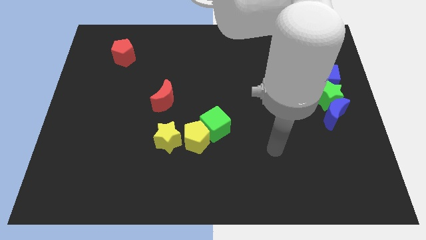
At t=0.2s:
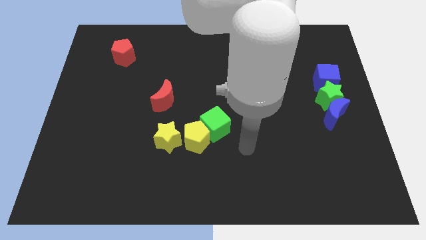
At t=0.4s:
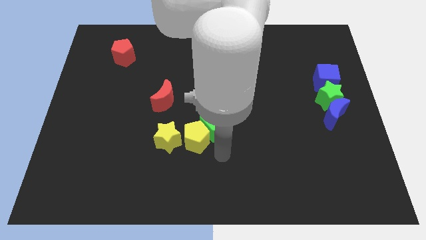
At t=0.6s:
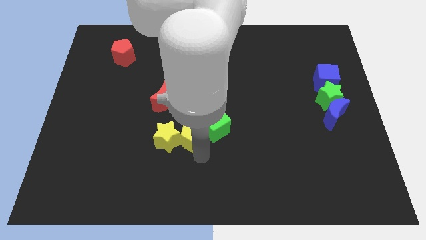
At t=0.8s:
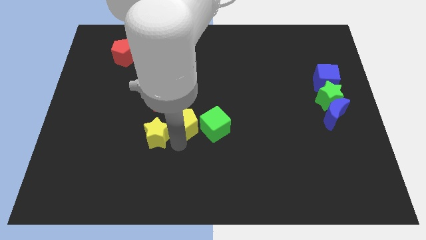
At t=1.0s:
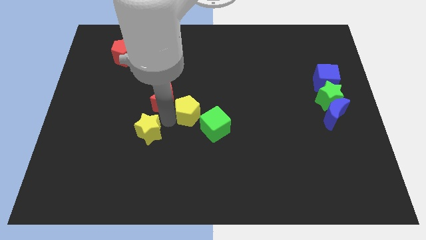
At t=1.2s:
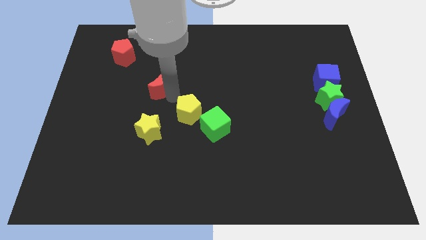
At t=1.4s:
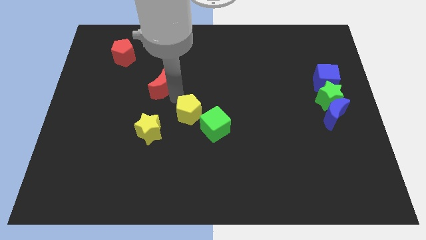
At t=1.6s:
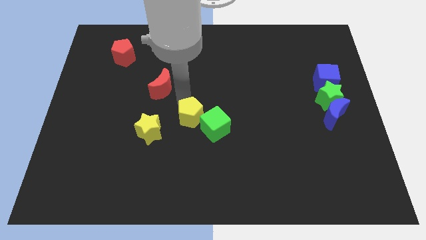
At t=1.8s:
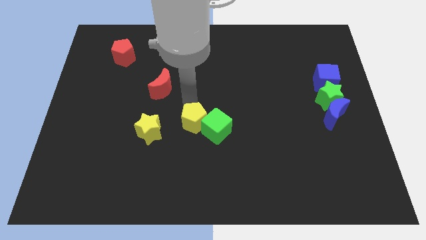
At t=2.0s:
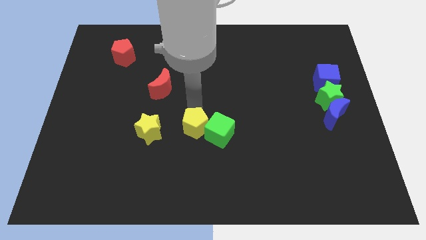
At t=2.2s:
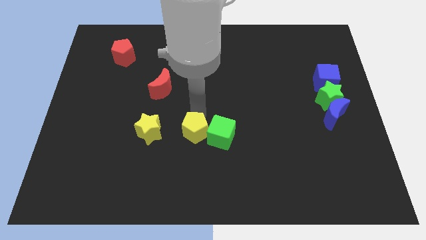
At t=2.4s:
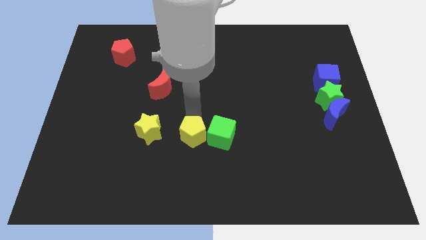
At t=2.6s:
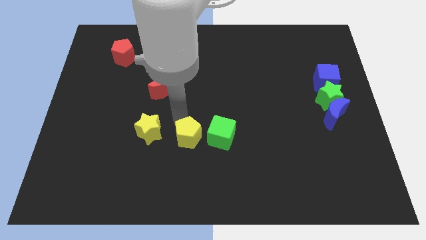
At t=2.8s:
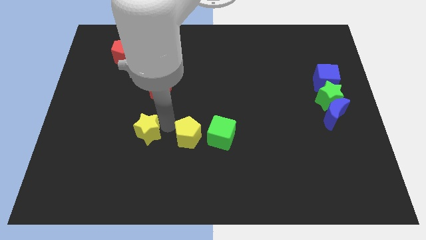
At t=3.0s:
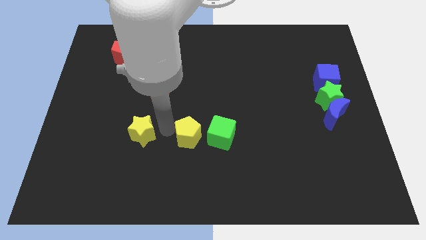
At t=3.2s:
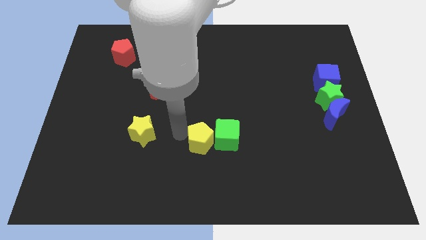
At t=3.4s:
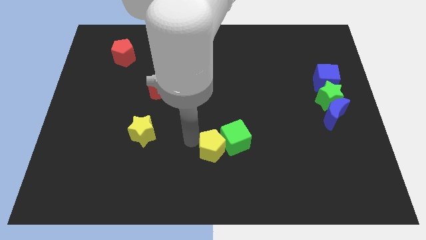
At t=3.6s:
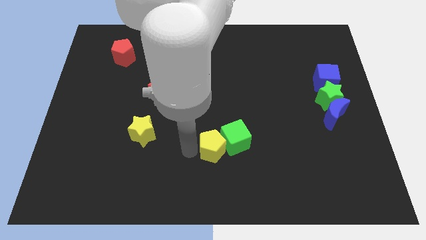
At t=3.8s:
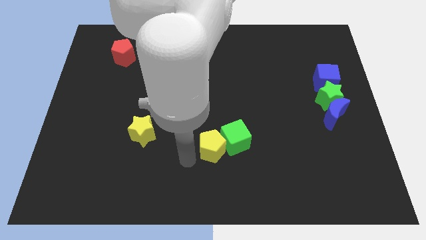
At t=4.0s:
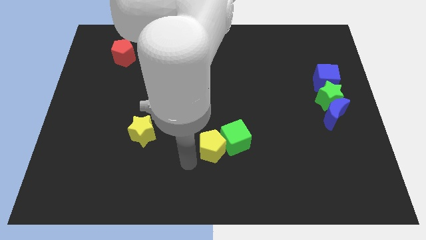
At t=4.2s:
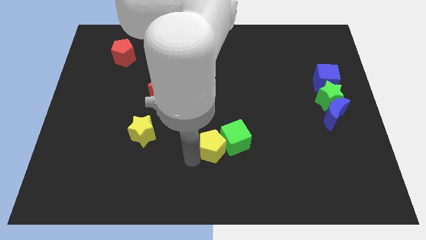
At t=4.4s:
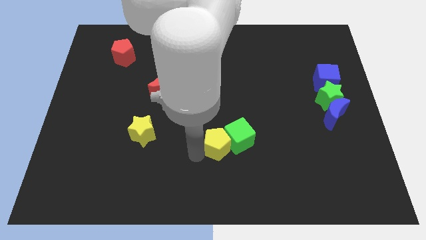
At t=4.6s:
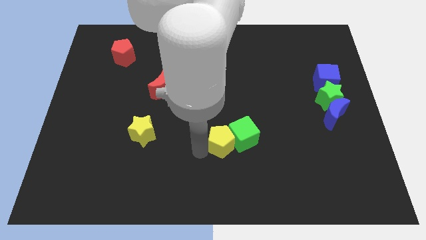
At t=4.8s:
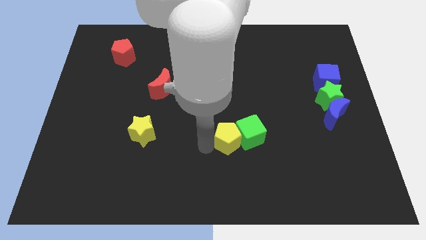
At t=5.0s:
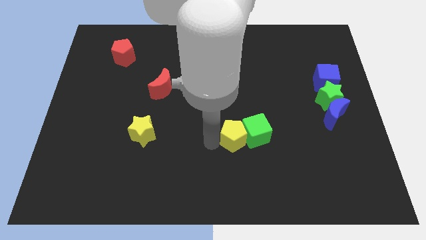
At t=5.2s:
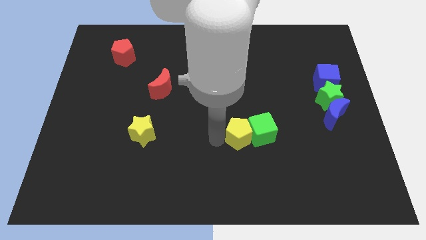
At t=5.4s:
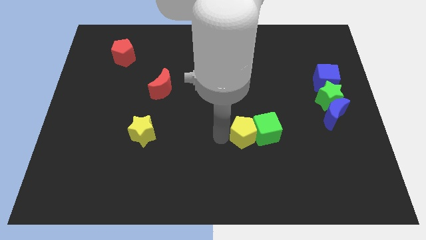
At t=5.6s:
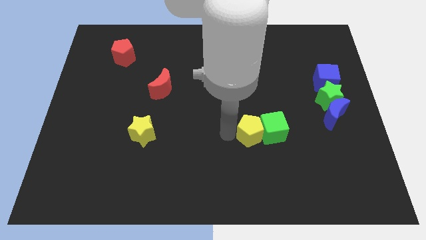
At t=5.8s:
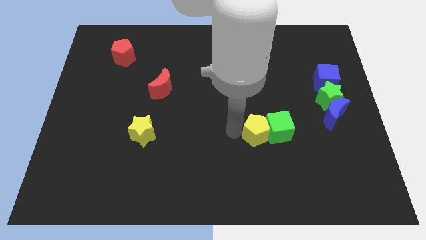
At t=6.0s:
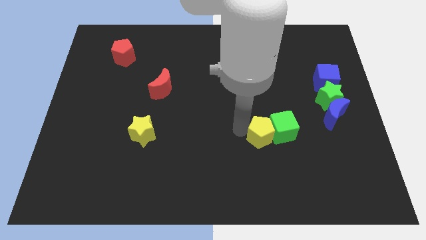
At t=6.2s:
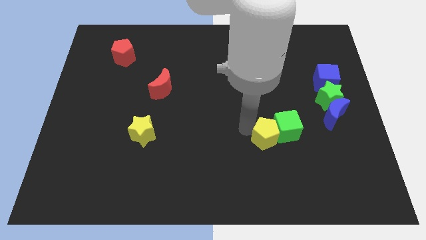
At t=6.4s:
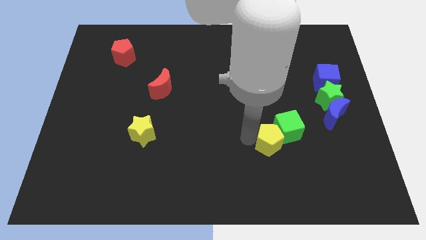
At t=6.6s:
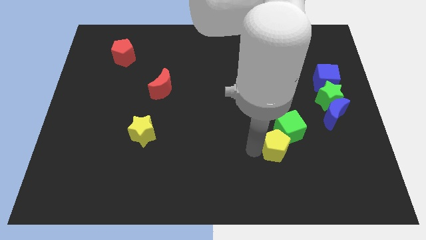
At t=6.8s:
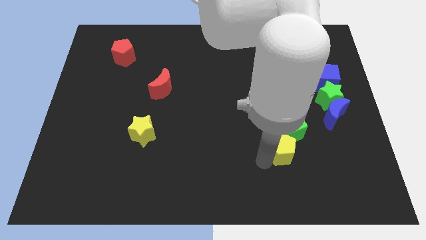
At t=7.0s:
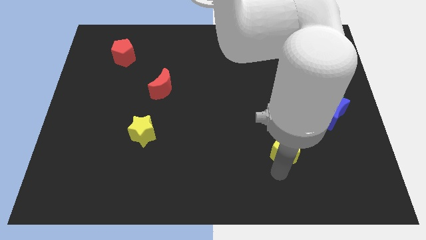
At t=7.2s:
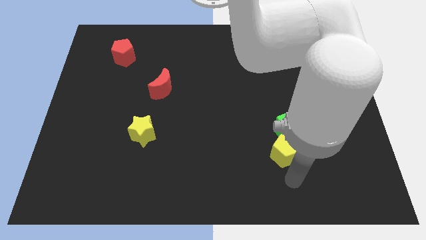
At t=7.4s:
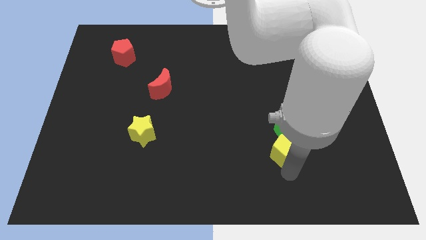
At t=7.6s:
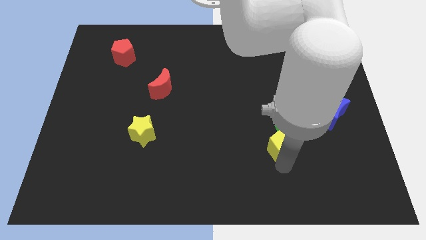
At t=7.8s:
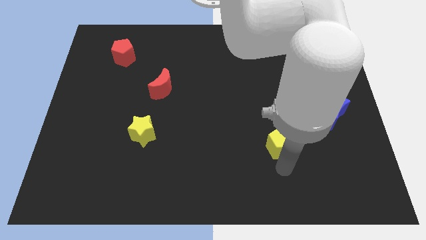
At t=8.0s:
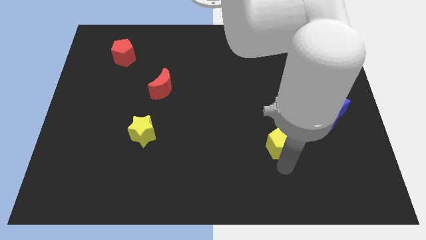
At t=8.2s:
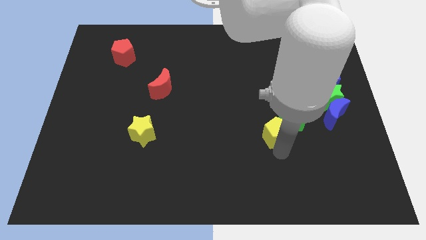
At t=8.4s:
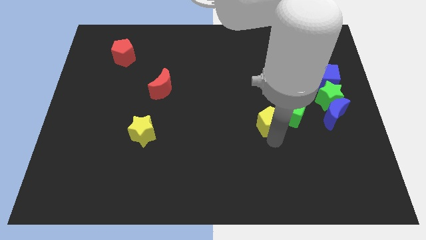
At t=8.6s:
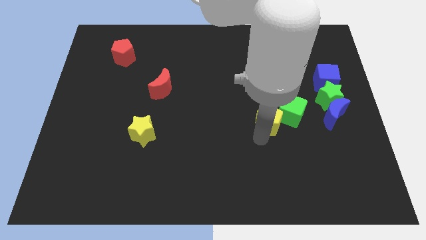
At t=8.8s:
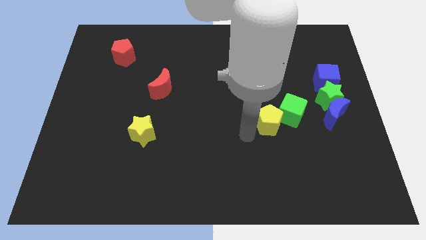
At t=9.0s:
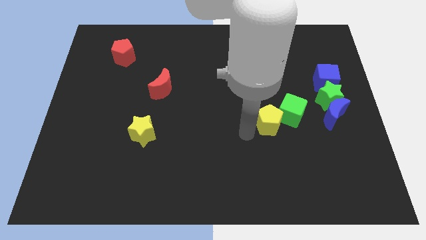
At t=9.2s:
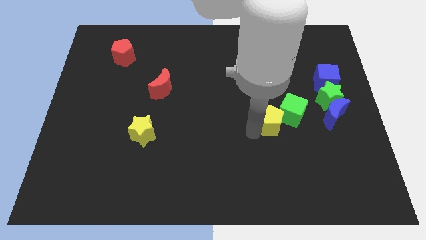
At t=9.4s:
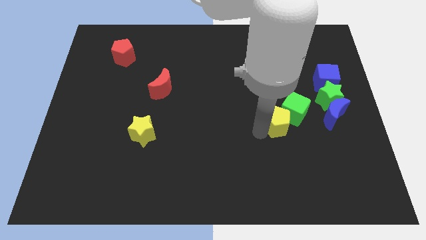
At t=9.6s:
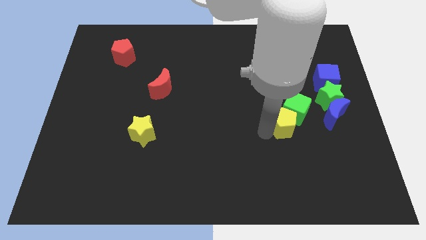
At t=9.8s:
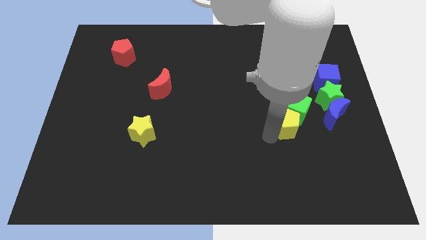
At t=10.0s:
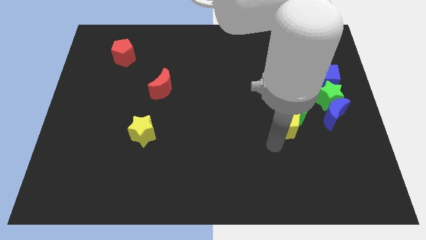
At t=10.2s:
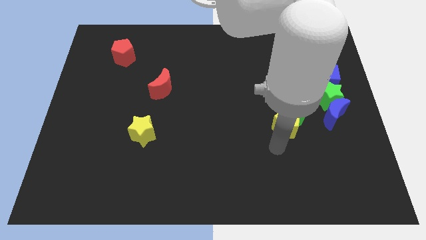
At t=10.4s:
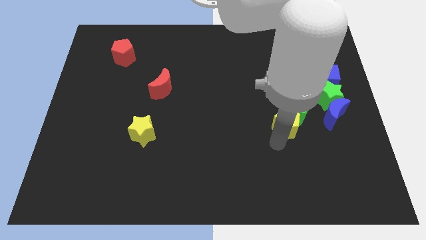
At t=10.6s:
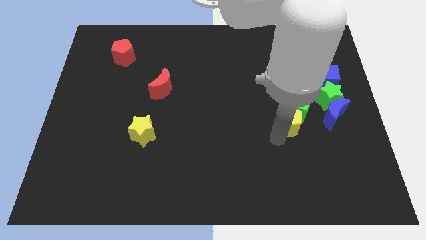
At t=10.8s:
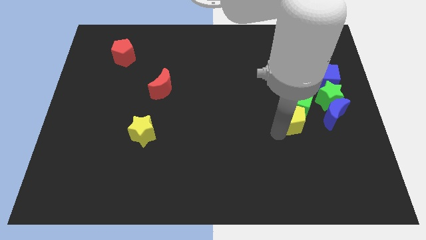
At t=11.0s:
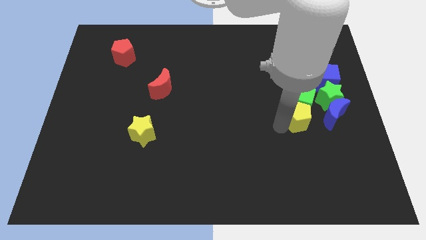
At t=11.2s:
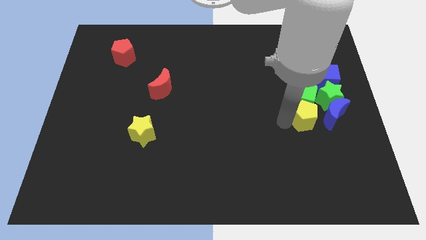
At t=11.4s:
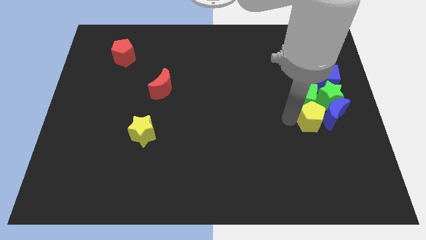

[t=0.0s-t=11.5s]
put the yellow pentagon to the top left of the blue moon

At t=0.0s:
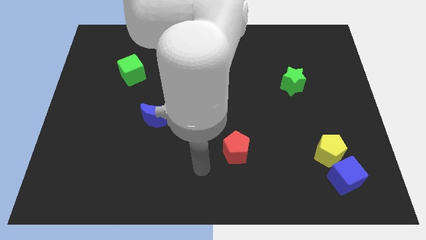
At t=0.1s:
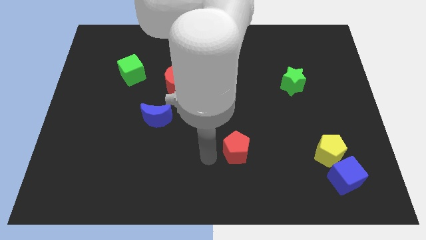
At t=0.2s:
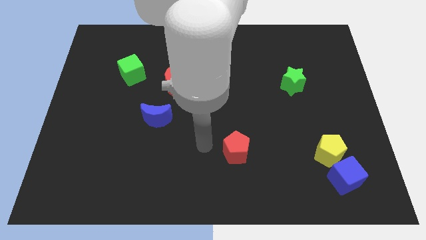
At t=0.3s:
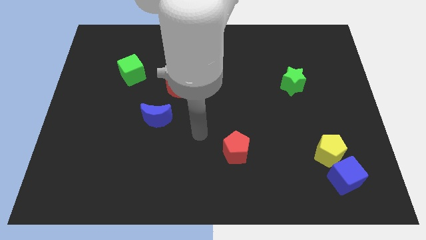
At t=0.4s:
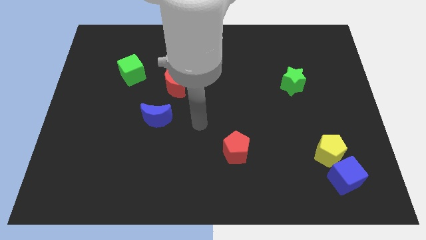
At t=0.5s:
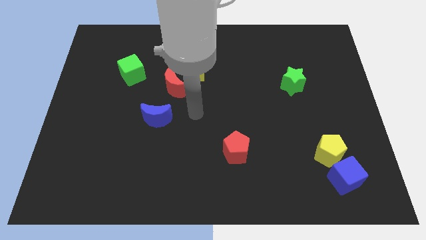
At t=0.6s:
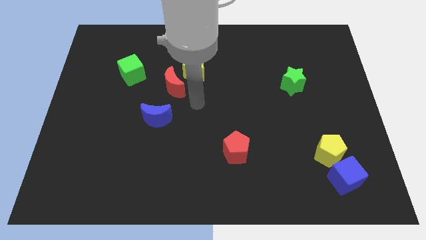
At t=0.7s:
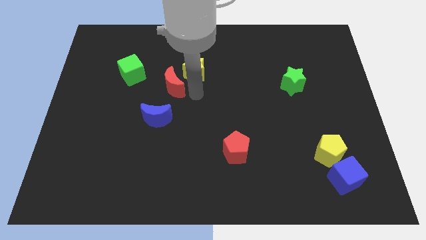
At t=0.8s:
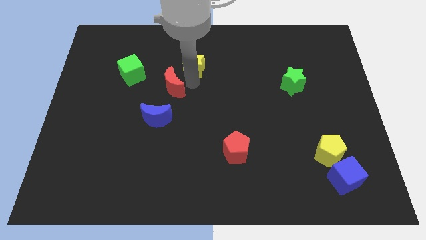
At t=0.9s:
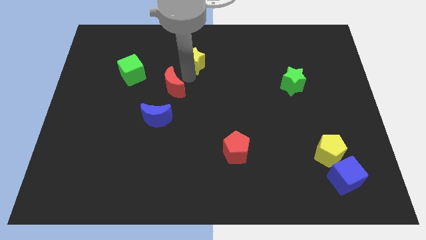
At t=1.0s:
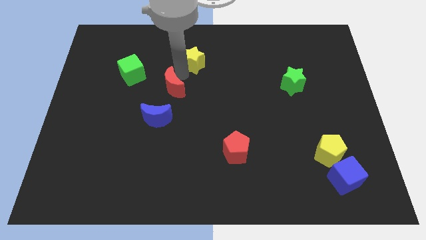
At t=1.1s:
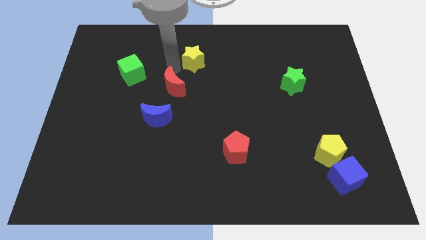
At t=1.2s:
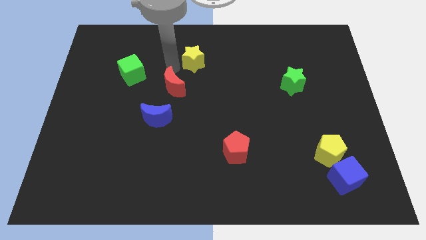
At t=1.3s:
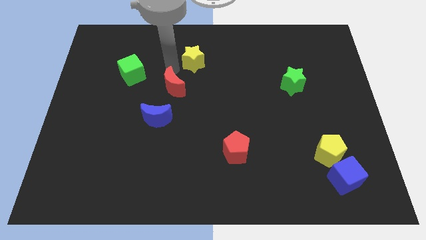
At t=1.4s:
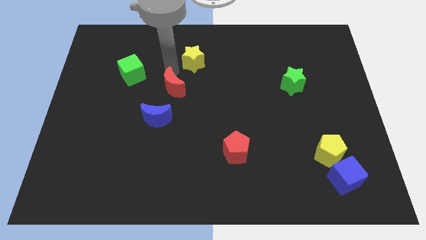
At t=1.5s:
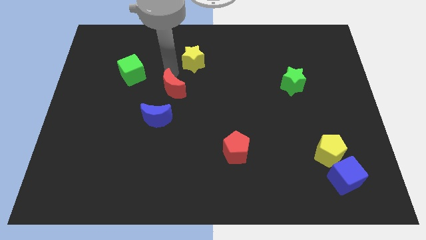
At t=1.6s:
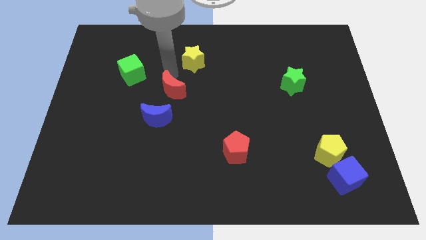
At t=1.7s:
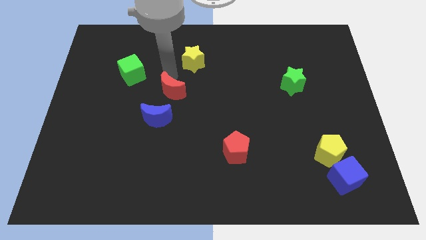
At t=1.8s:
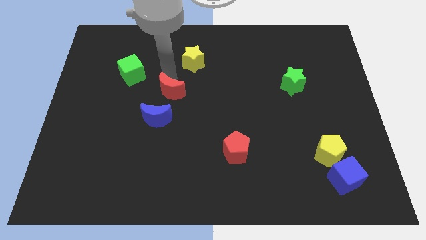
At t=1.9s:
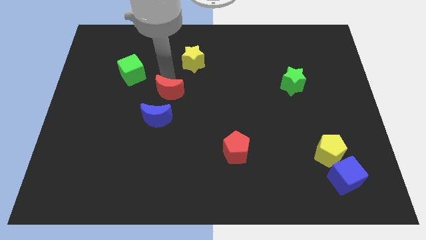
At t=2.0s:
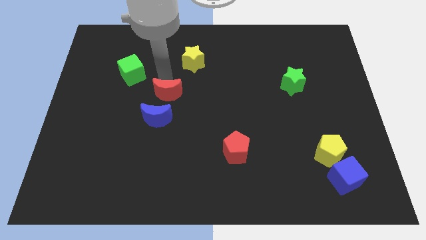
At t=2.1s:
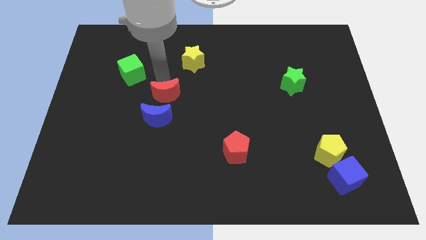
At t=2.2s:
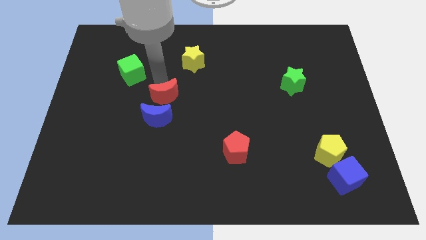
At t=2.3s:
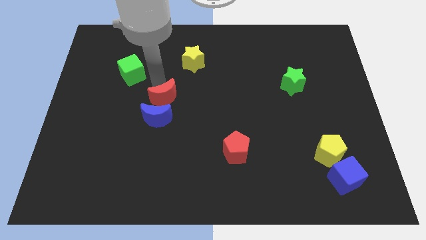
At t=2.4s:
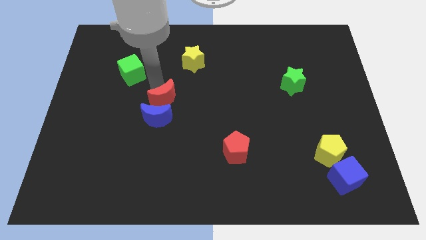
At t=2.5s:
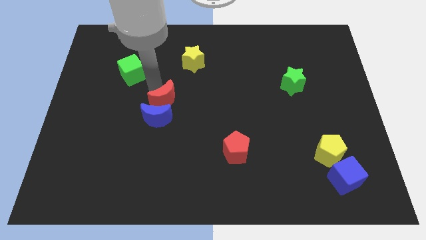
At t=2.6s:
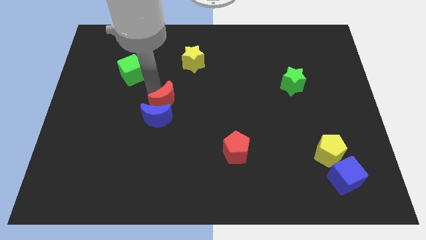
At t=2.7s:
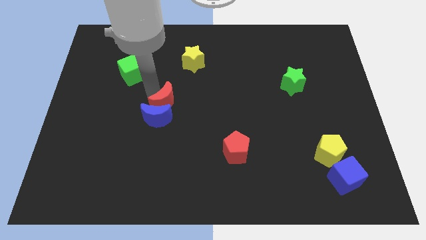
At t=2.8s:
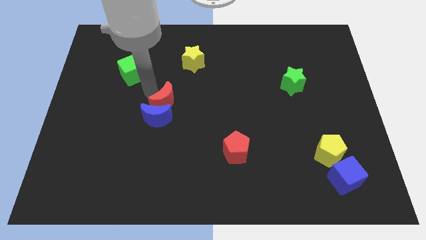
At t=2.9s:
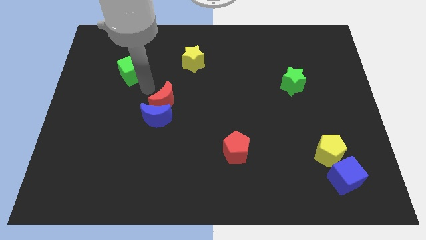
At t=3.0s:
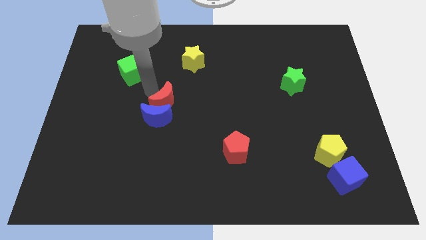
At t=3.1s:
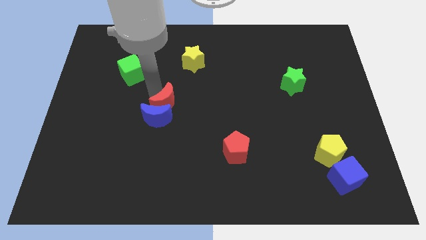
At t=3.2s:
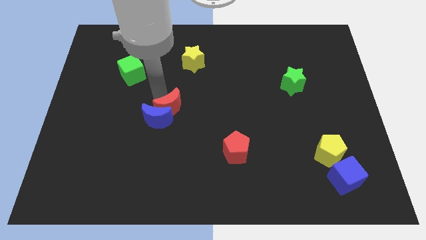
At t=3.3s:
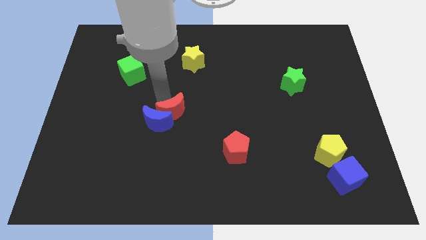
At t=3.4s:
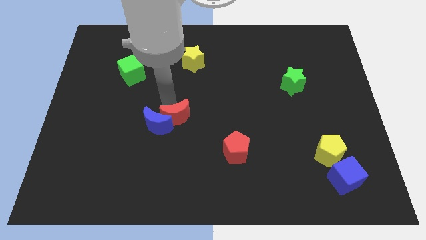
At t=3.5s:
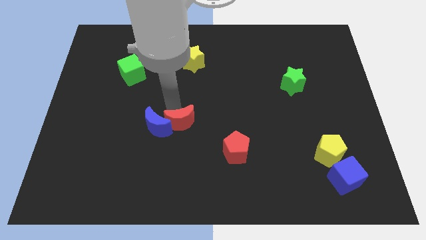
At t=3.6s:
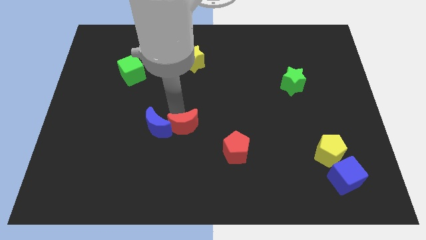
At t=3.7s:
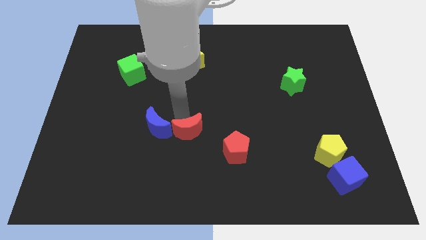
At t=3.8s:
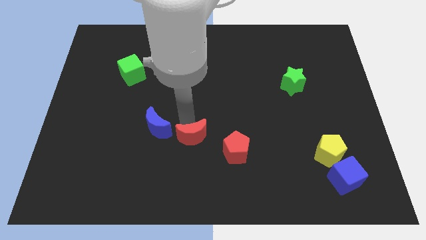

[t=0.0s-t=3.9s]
slide the red moon to the left of the red pentagon
